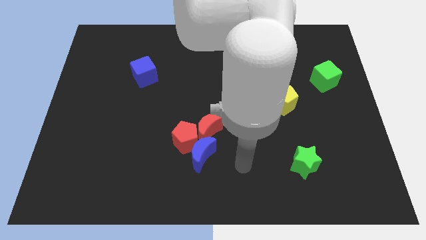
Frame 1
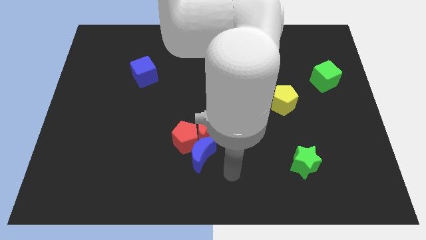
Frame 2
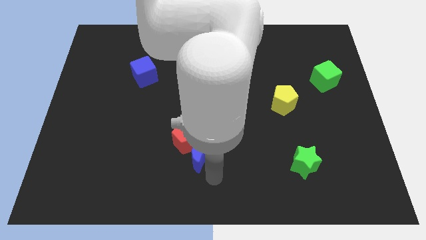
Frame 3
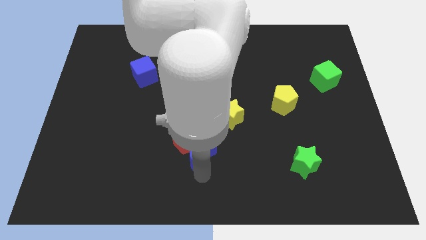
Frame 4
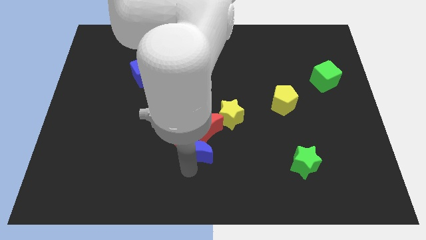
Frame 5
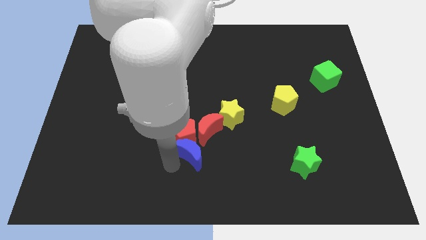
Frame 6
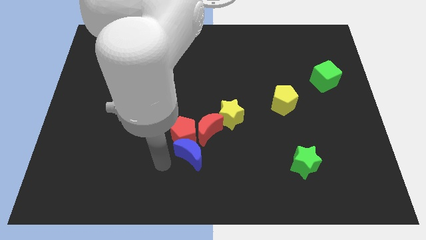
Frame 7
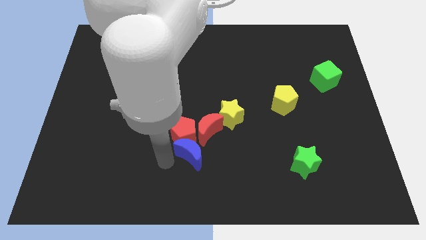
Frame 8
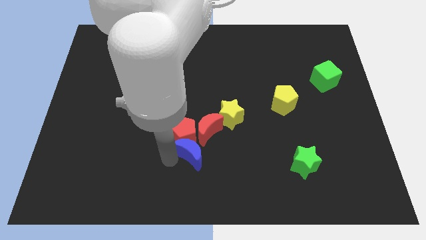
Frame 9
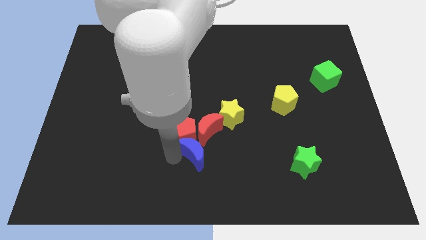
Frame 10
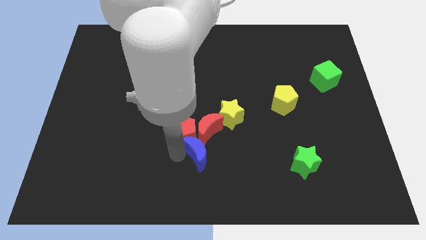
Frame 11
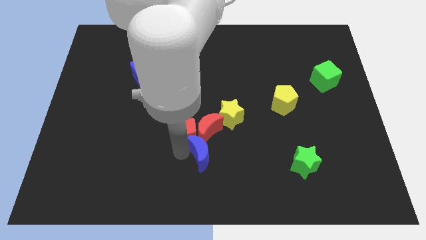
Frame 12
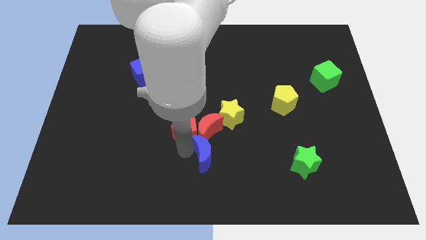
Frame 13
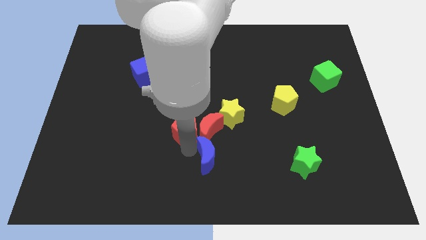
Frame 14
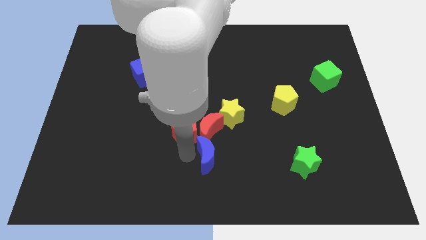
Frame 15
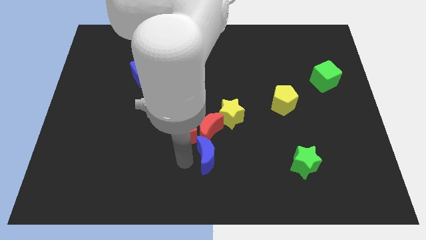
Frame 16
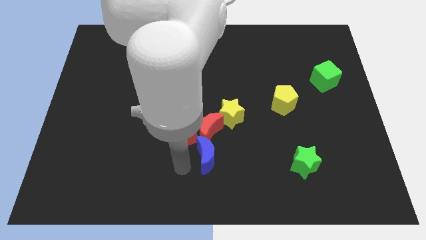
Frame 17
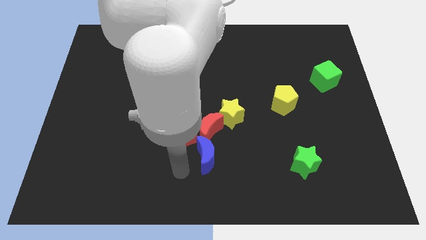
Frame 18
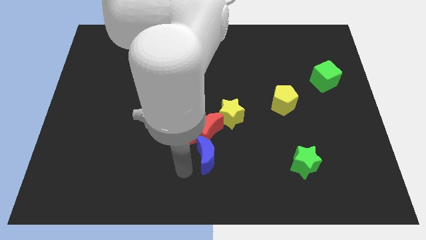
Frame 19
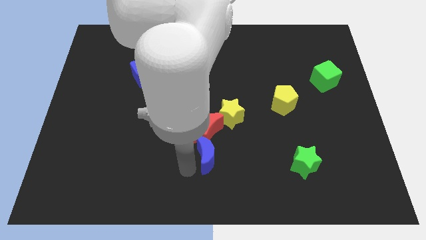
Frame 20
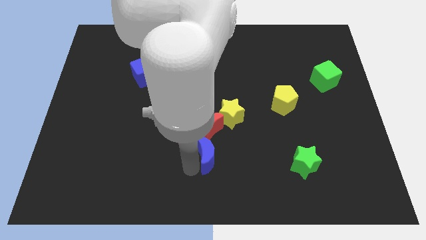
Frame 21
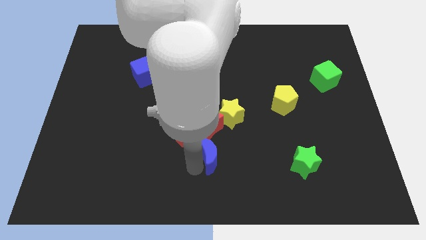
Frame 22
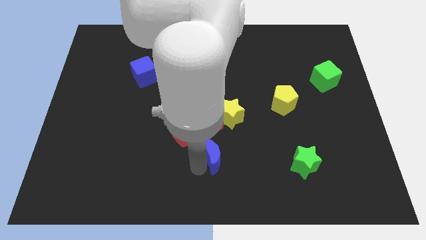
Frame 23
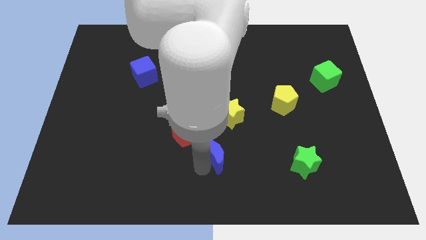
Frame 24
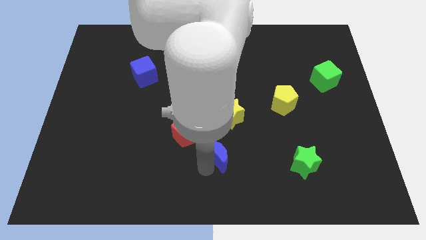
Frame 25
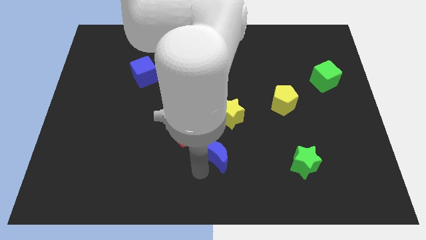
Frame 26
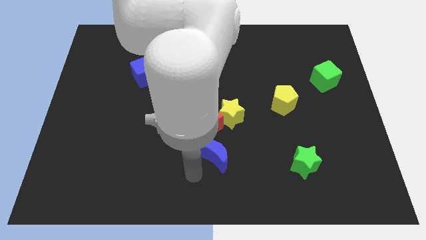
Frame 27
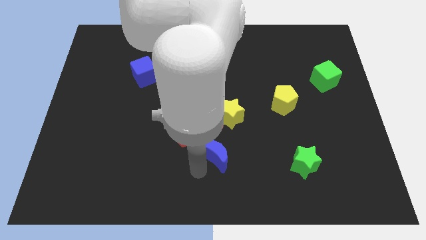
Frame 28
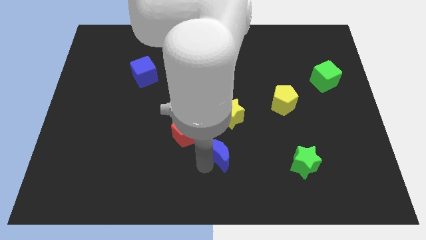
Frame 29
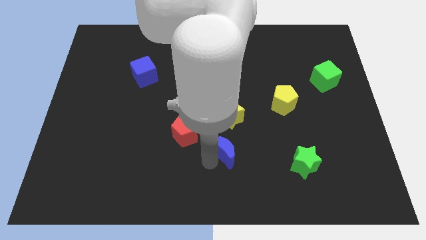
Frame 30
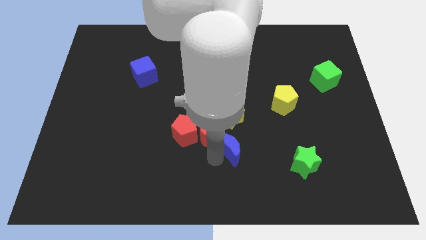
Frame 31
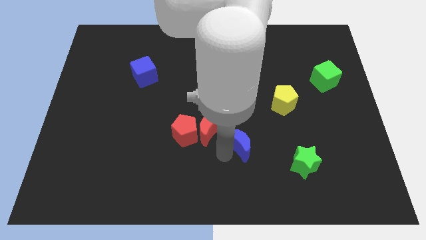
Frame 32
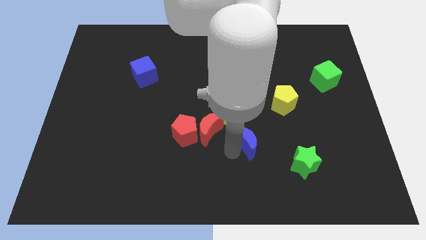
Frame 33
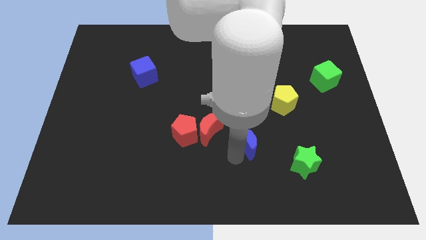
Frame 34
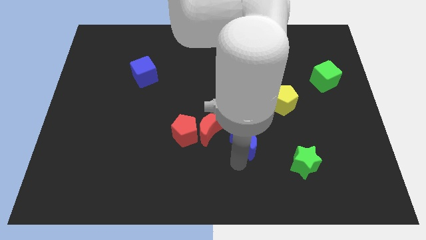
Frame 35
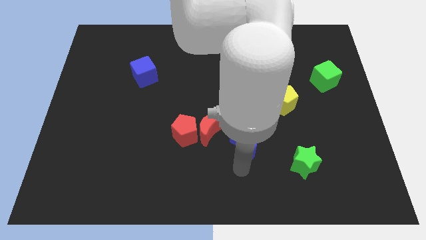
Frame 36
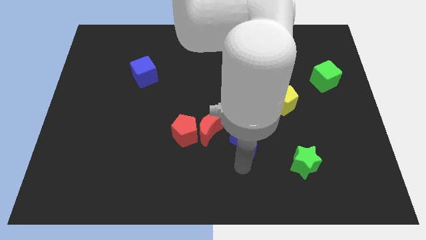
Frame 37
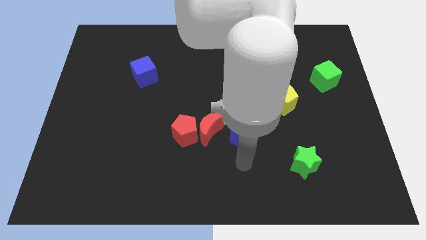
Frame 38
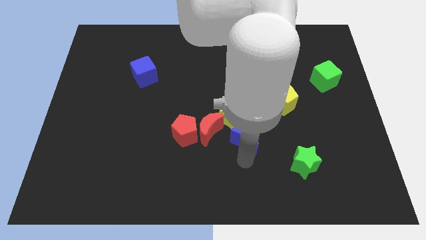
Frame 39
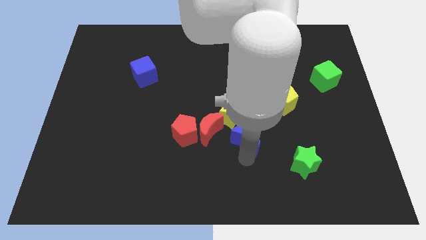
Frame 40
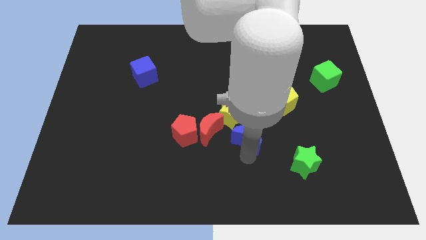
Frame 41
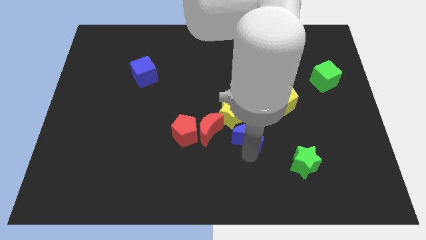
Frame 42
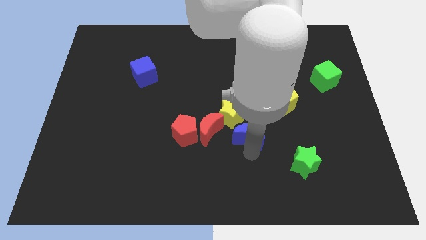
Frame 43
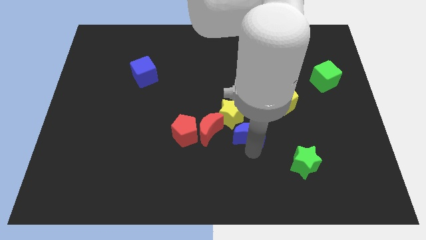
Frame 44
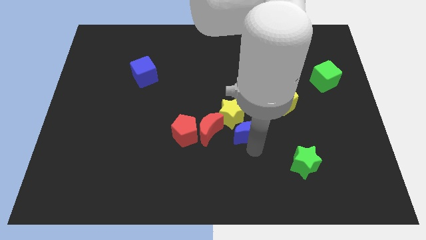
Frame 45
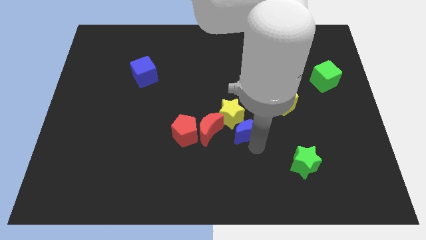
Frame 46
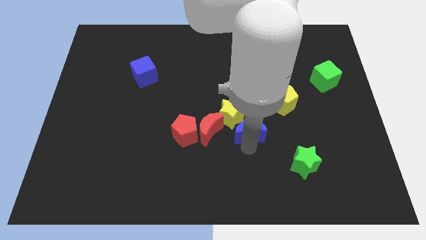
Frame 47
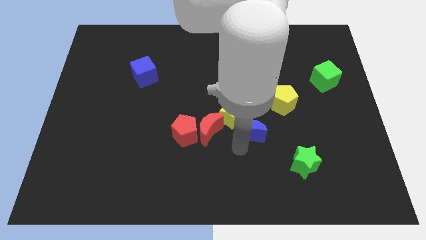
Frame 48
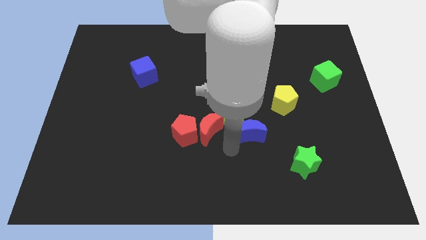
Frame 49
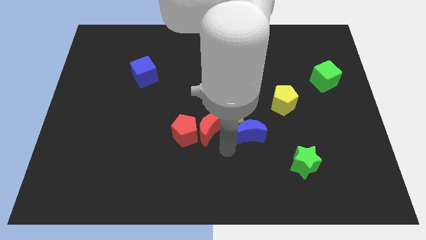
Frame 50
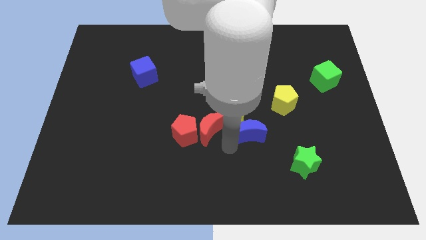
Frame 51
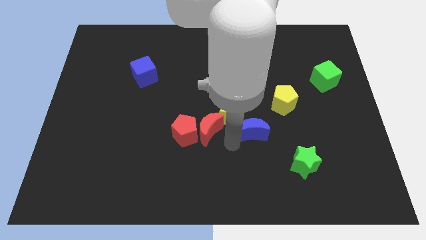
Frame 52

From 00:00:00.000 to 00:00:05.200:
push the blue moon to the right of the yellow star

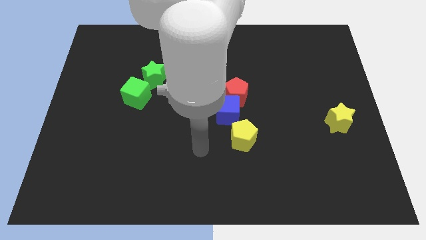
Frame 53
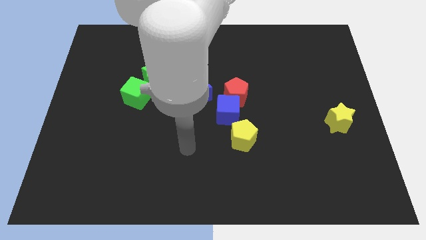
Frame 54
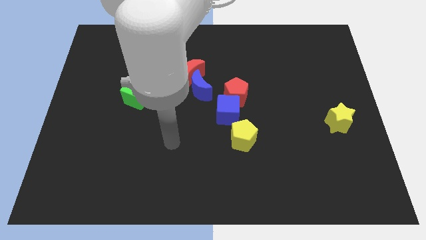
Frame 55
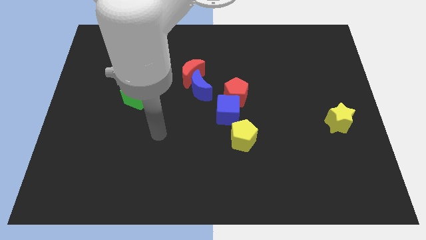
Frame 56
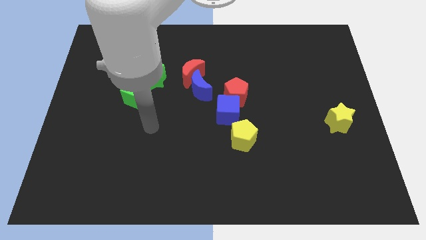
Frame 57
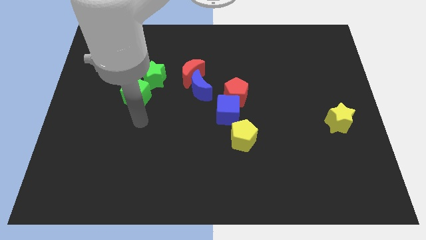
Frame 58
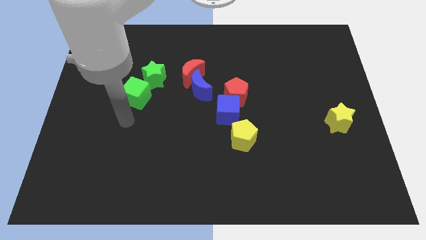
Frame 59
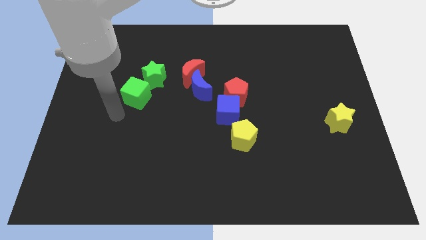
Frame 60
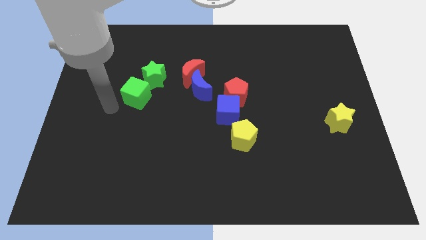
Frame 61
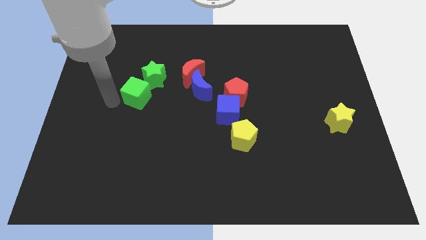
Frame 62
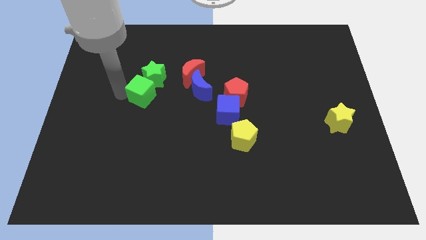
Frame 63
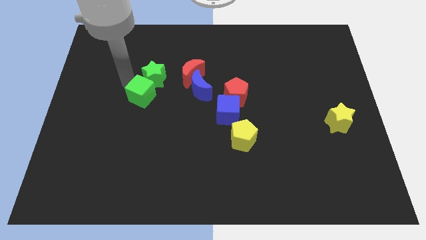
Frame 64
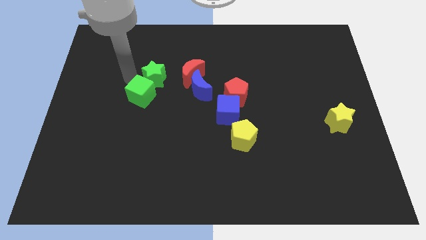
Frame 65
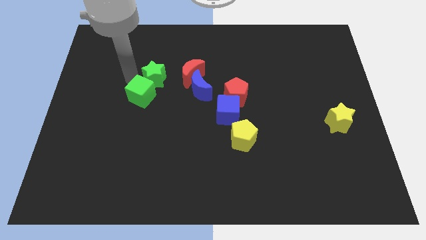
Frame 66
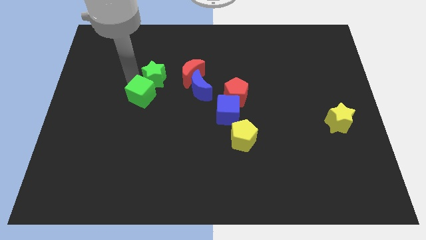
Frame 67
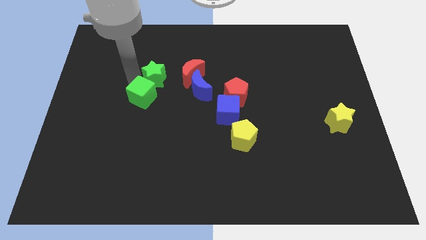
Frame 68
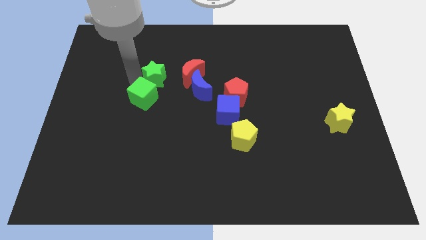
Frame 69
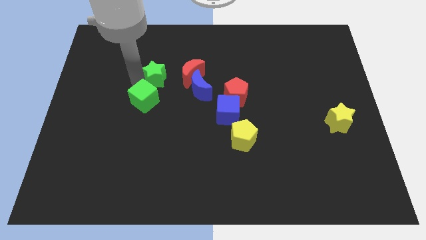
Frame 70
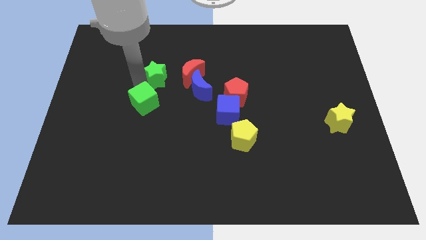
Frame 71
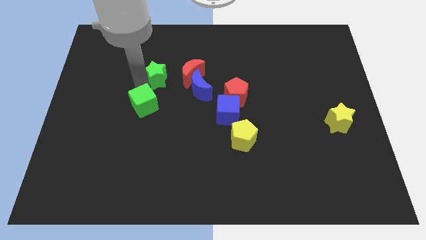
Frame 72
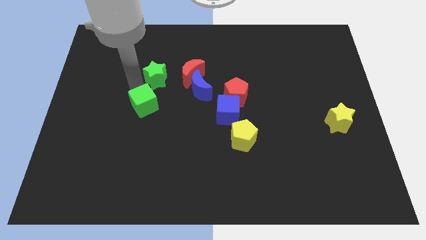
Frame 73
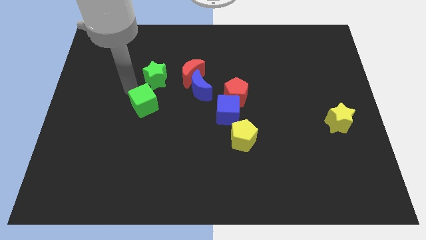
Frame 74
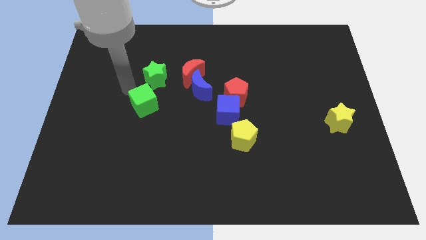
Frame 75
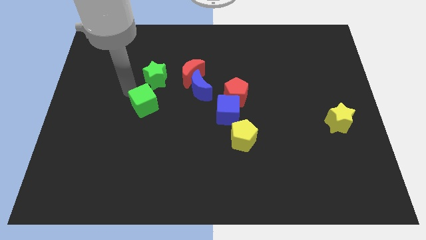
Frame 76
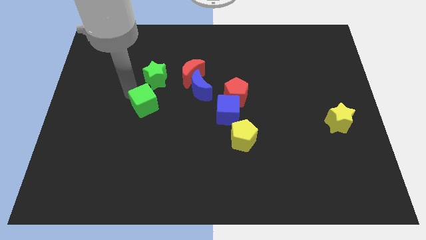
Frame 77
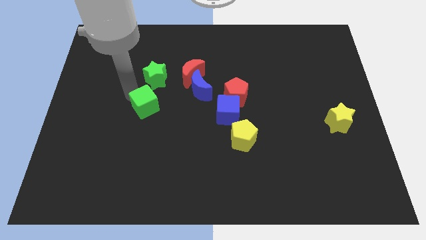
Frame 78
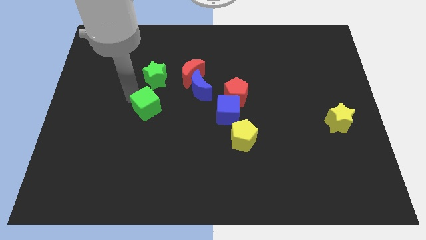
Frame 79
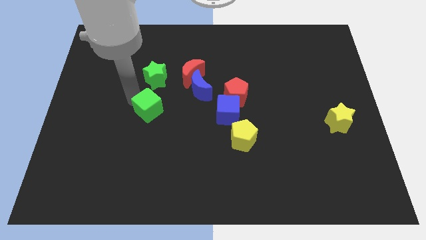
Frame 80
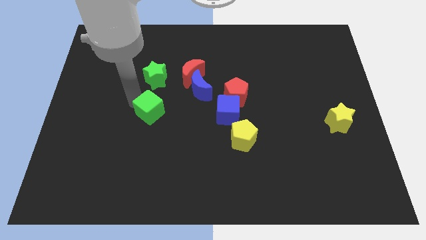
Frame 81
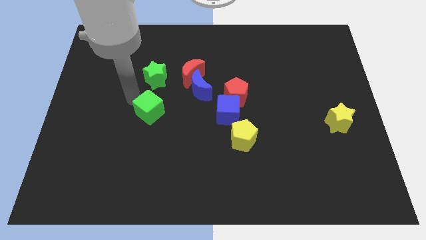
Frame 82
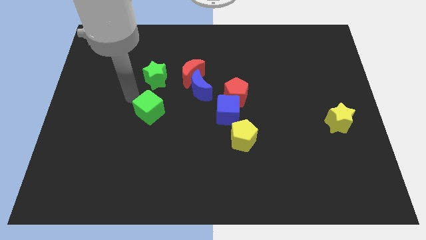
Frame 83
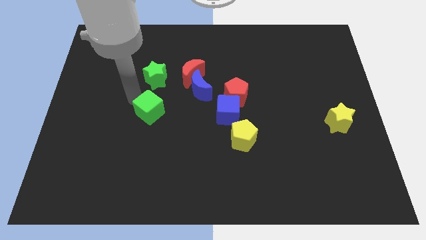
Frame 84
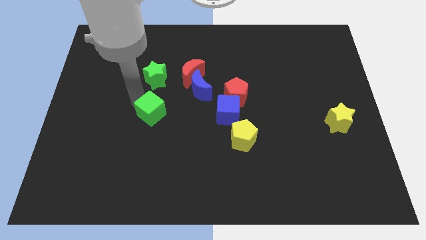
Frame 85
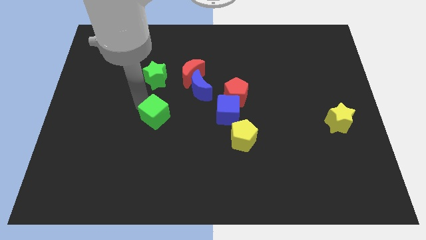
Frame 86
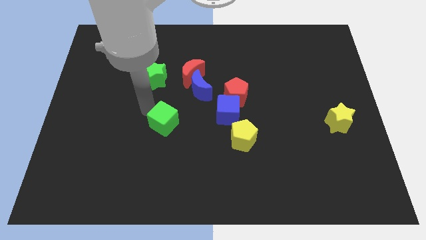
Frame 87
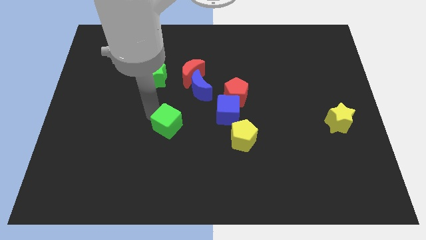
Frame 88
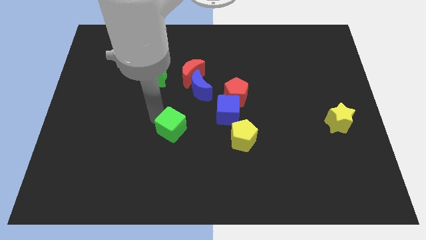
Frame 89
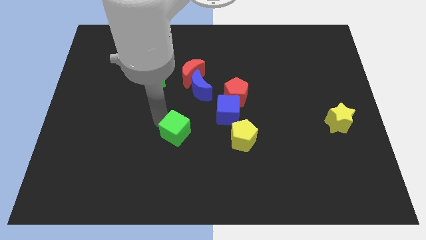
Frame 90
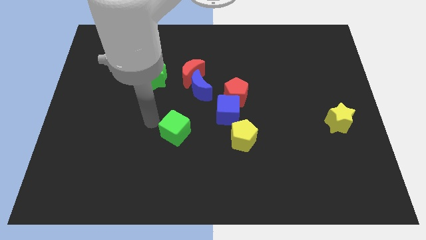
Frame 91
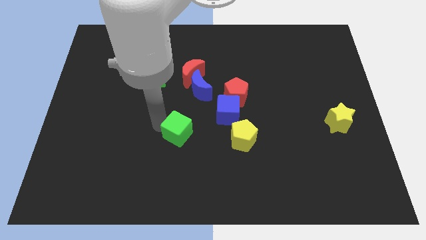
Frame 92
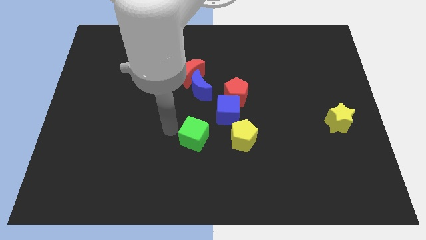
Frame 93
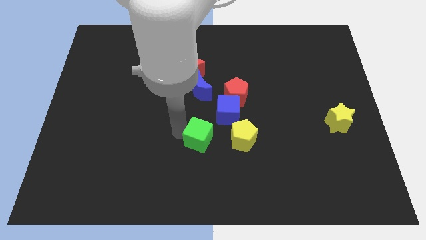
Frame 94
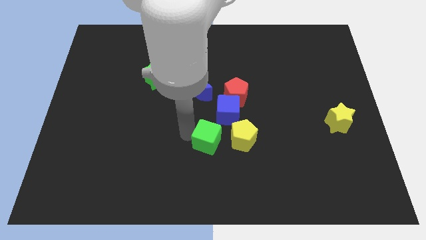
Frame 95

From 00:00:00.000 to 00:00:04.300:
slide the green cube below the blue cube
